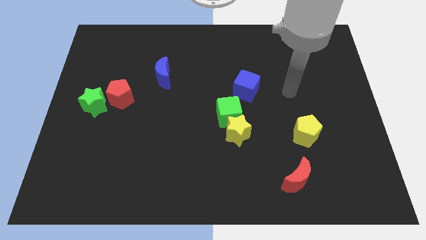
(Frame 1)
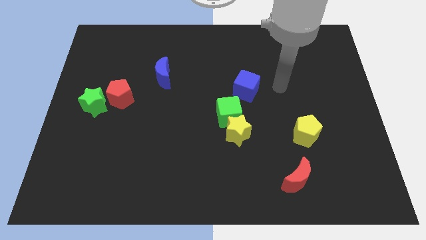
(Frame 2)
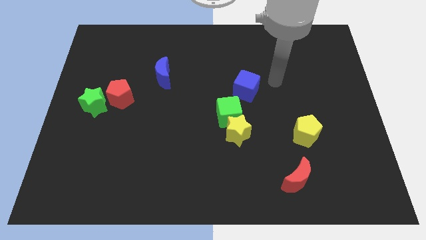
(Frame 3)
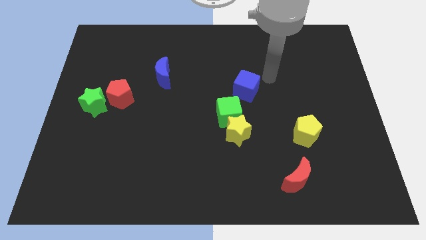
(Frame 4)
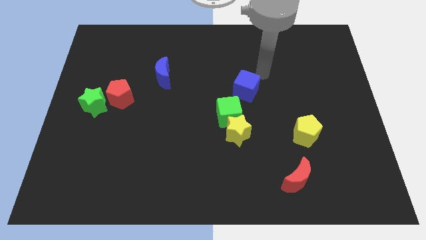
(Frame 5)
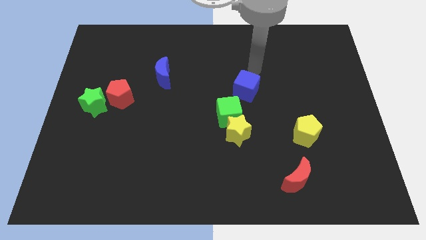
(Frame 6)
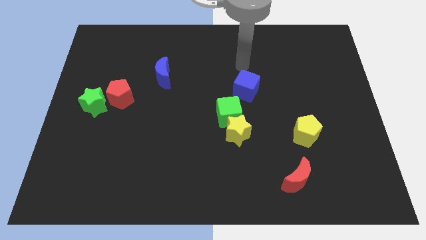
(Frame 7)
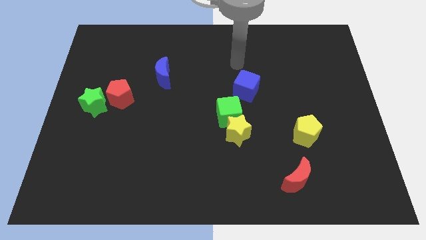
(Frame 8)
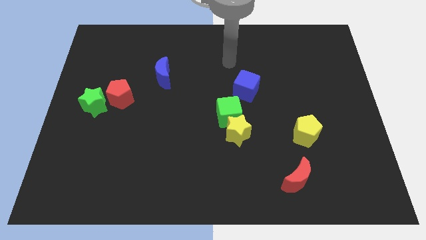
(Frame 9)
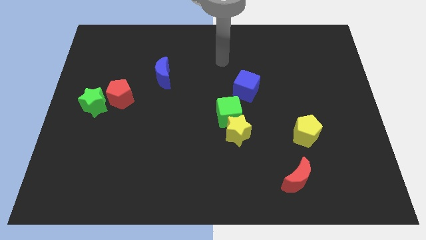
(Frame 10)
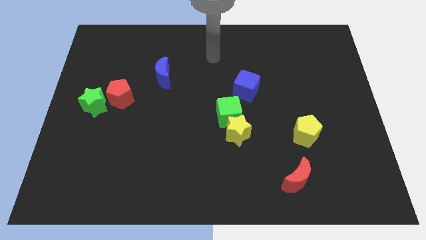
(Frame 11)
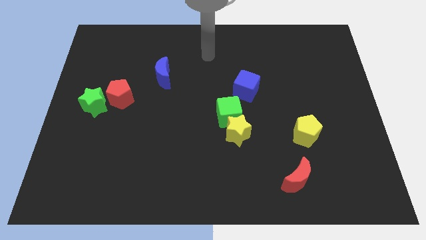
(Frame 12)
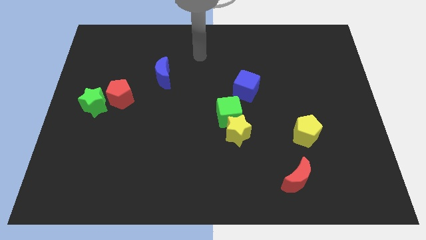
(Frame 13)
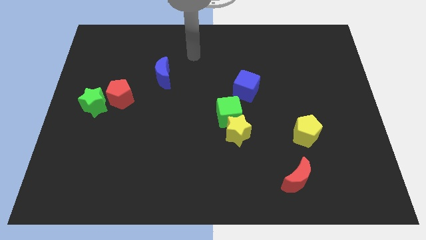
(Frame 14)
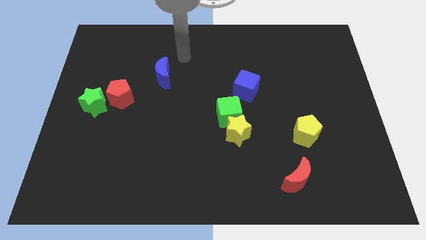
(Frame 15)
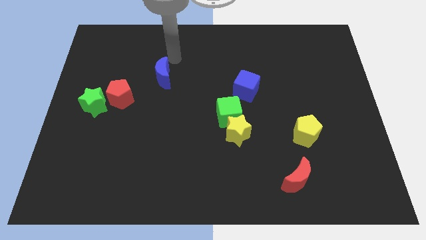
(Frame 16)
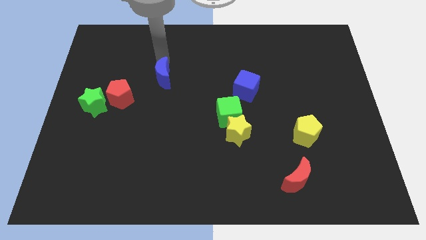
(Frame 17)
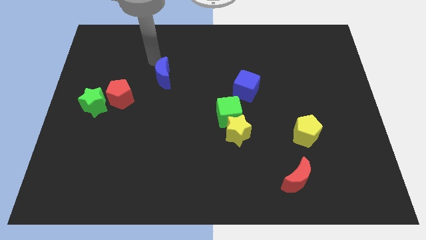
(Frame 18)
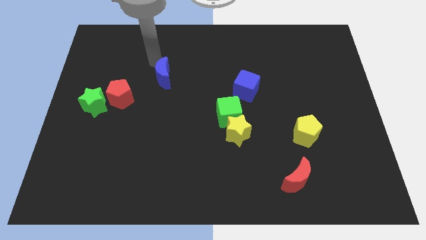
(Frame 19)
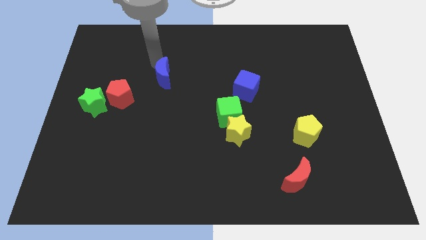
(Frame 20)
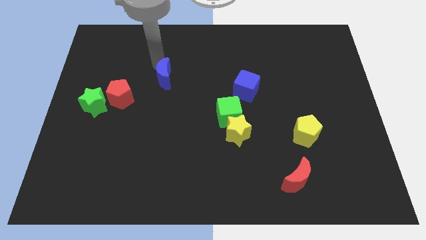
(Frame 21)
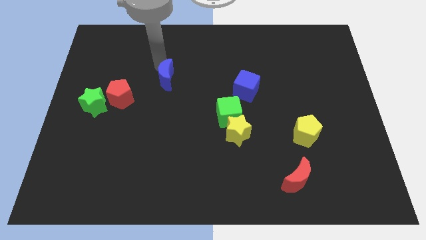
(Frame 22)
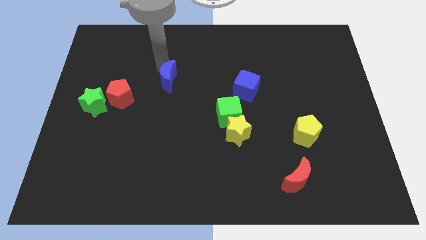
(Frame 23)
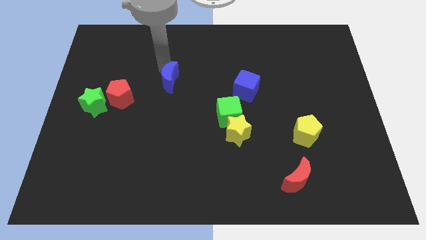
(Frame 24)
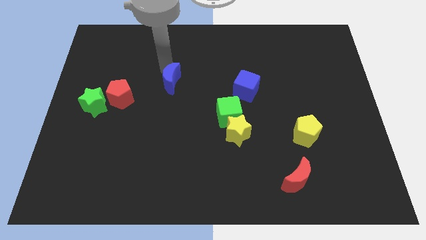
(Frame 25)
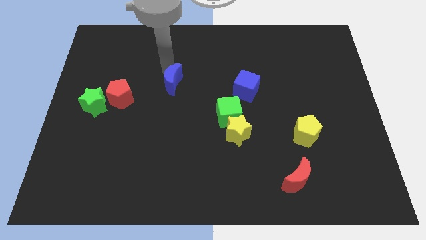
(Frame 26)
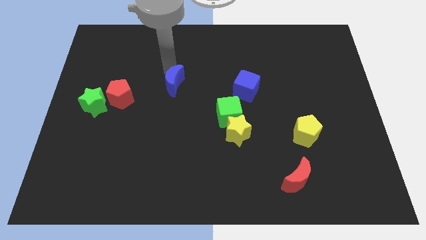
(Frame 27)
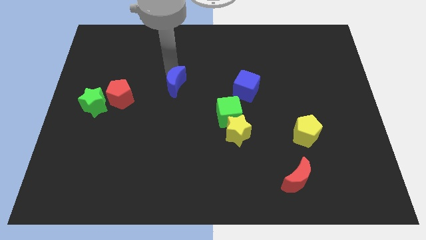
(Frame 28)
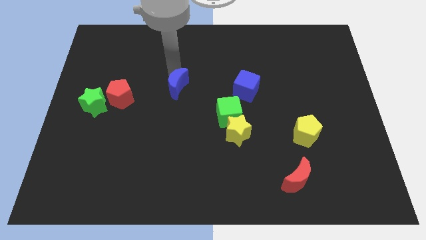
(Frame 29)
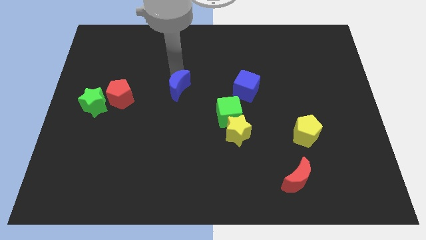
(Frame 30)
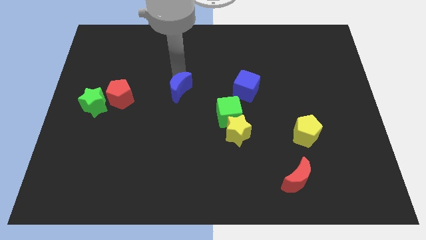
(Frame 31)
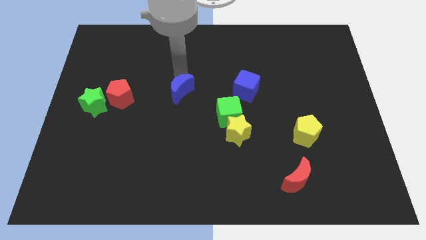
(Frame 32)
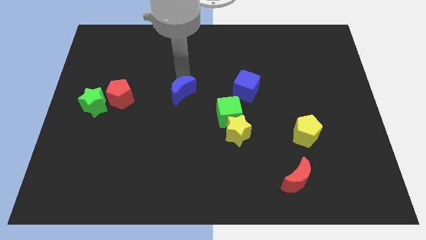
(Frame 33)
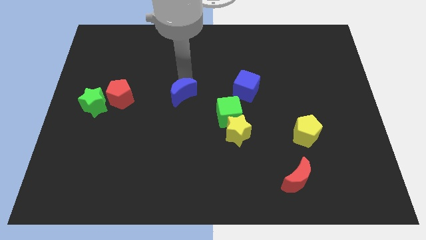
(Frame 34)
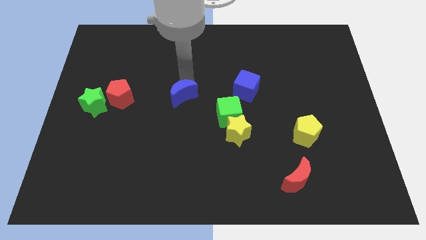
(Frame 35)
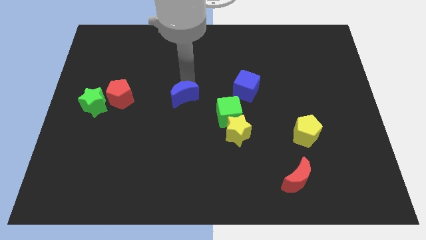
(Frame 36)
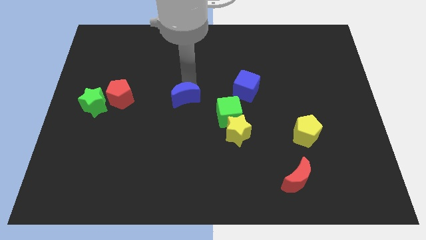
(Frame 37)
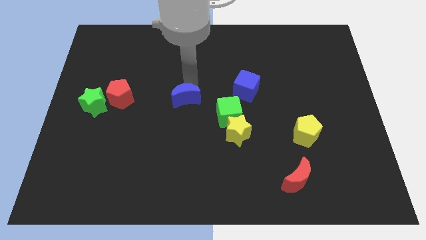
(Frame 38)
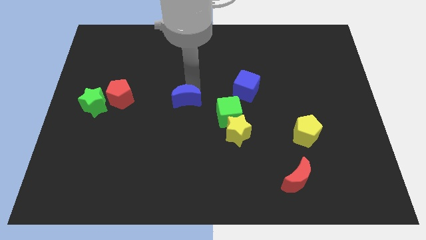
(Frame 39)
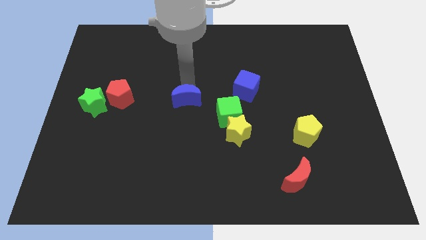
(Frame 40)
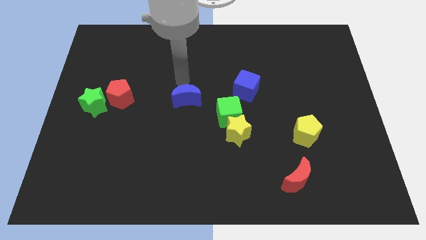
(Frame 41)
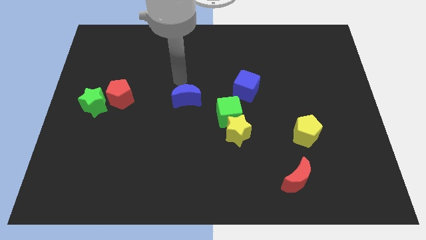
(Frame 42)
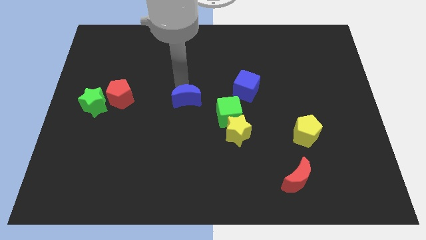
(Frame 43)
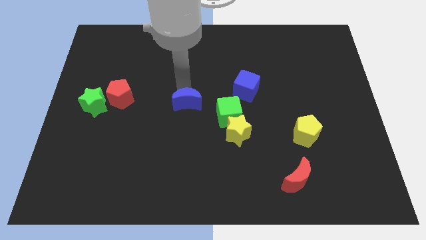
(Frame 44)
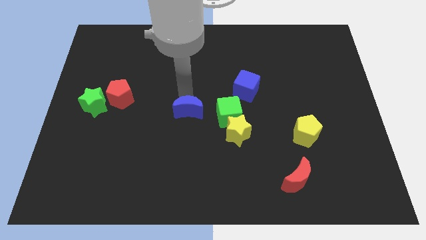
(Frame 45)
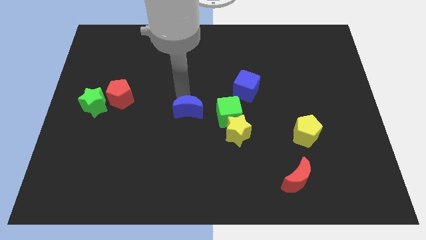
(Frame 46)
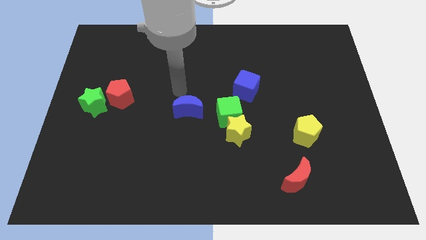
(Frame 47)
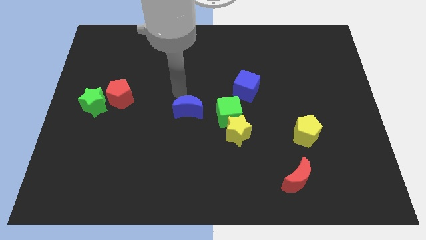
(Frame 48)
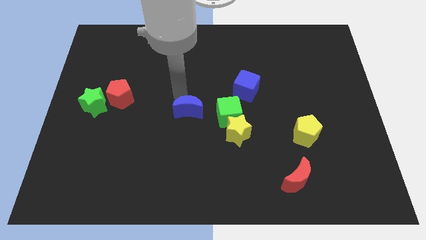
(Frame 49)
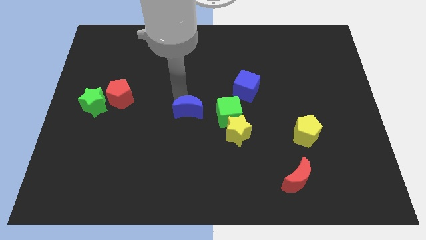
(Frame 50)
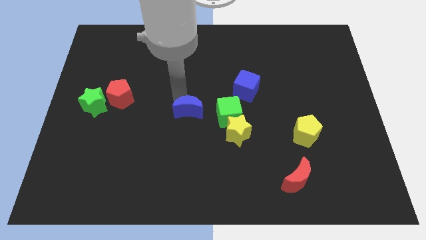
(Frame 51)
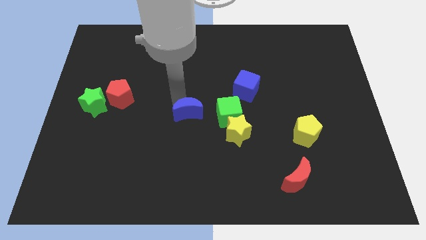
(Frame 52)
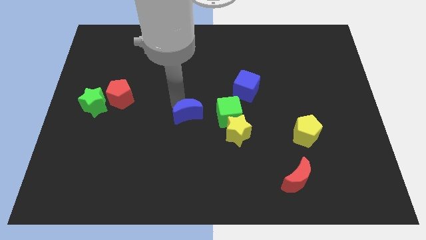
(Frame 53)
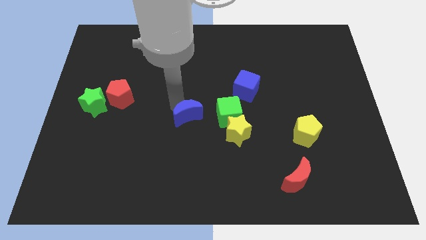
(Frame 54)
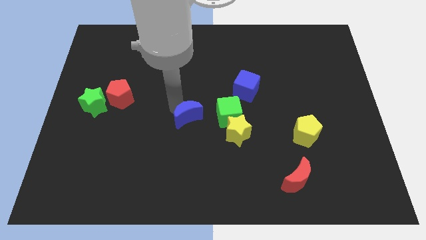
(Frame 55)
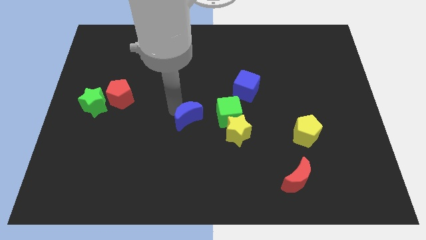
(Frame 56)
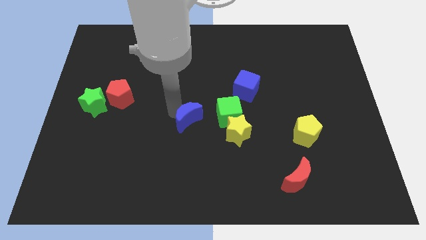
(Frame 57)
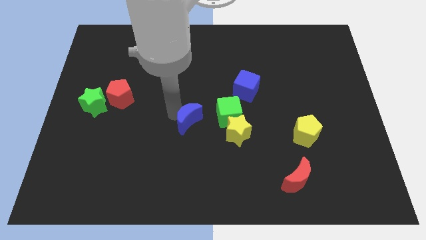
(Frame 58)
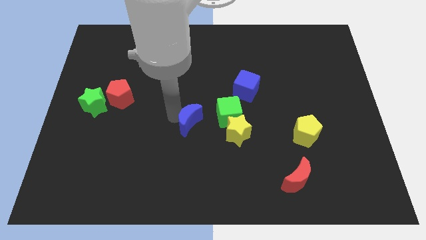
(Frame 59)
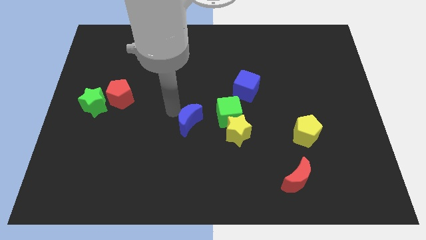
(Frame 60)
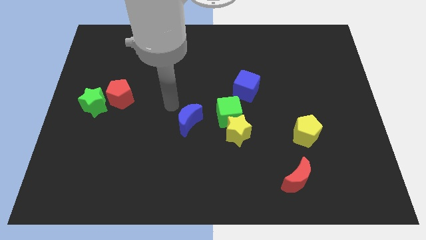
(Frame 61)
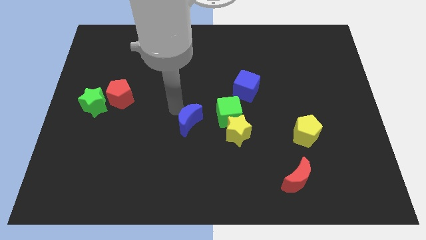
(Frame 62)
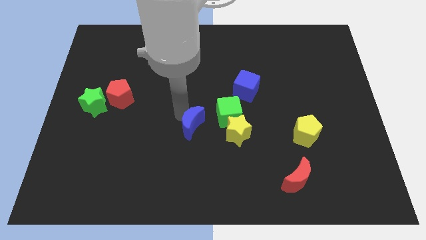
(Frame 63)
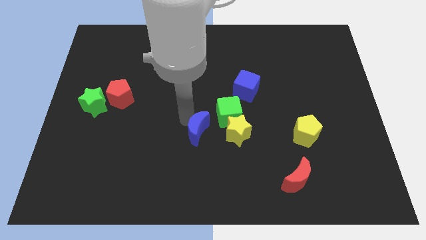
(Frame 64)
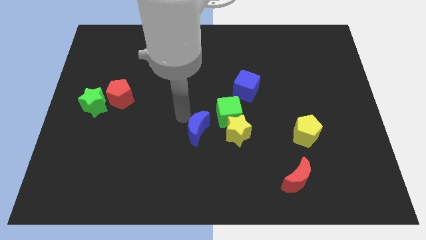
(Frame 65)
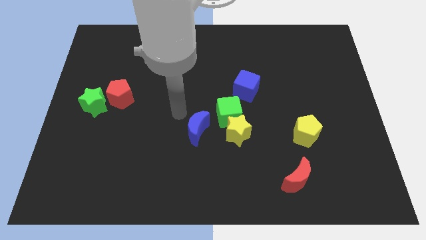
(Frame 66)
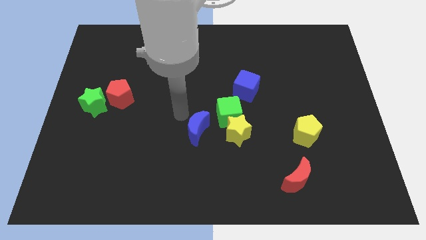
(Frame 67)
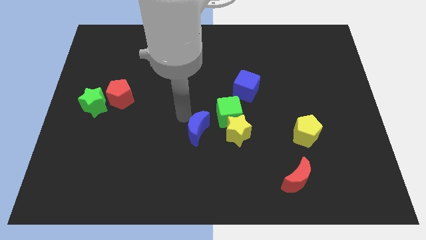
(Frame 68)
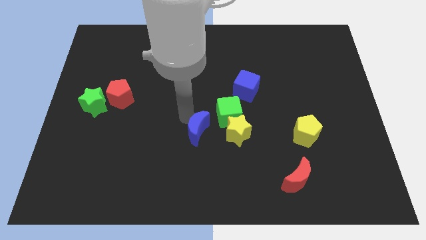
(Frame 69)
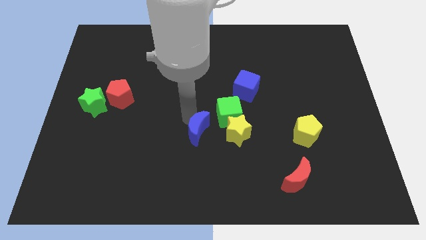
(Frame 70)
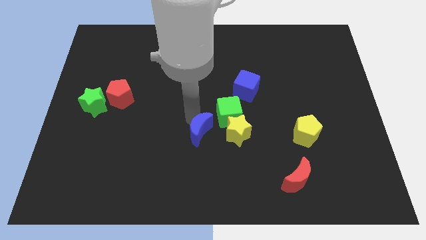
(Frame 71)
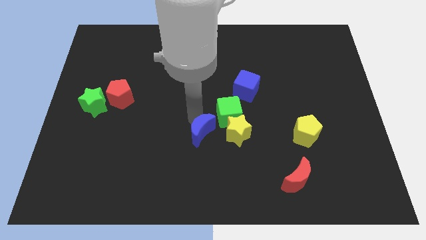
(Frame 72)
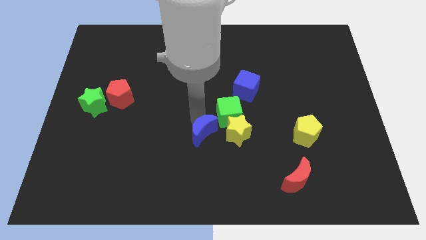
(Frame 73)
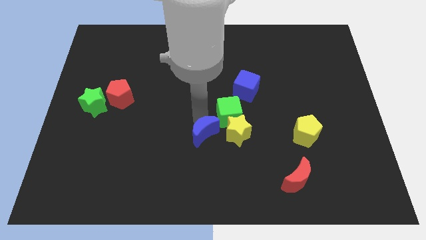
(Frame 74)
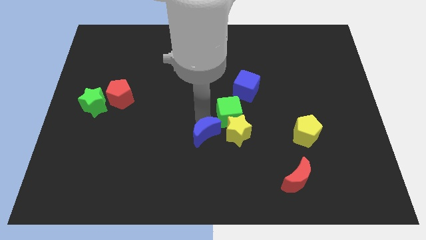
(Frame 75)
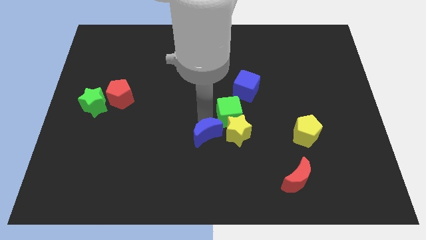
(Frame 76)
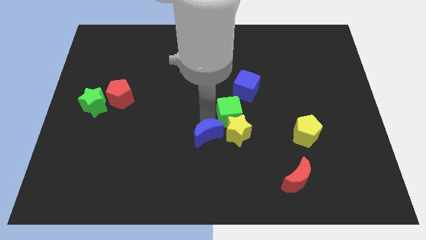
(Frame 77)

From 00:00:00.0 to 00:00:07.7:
push the blue moon downwards and right

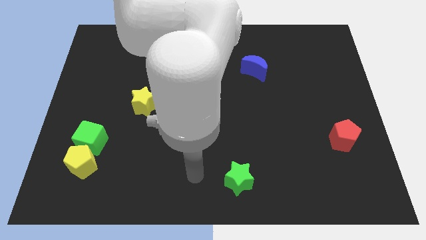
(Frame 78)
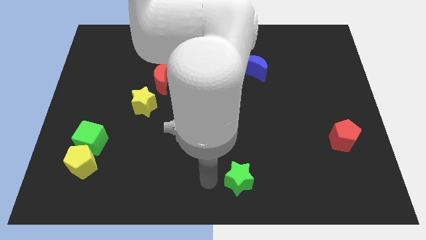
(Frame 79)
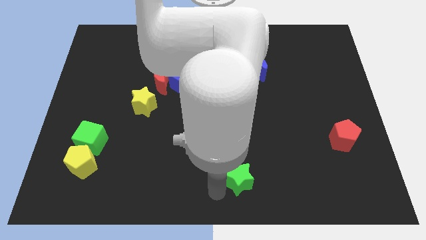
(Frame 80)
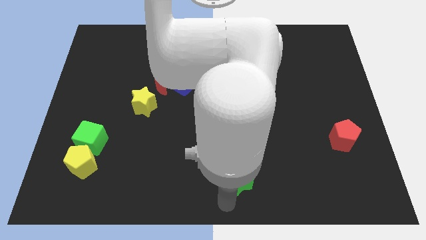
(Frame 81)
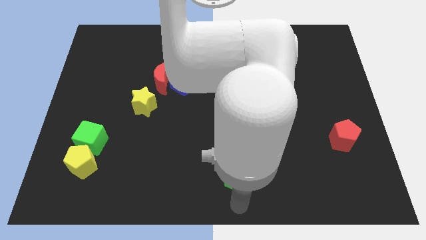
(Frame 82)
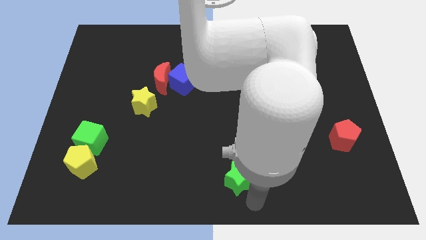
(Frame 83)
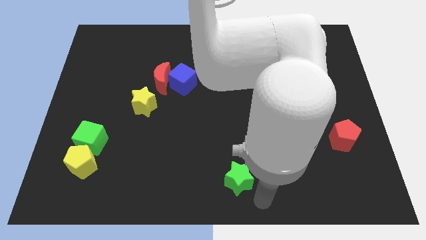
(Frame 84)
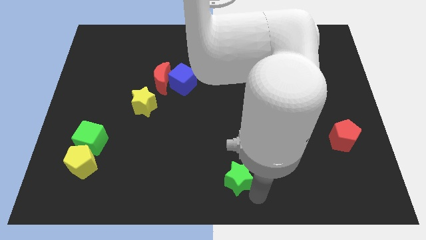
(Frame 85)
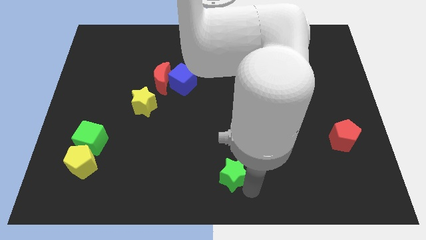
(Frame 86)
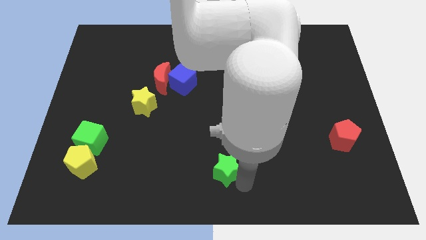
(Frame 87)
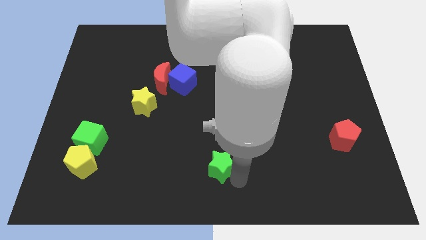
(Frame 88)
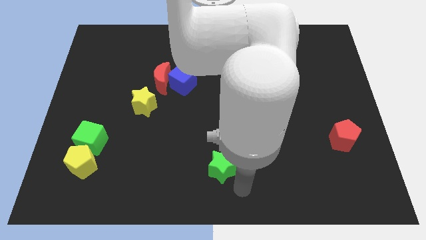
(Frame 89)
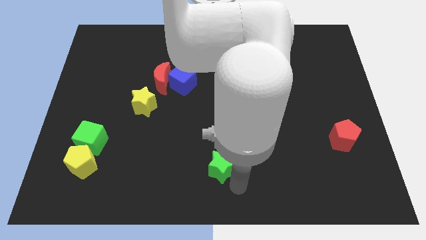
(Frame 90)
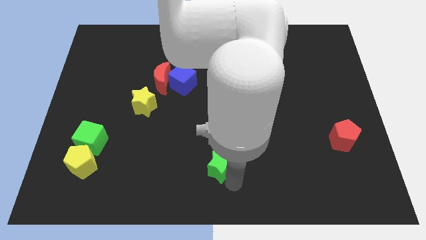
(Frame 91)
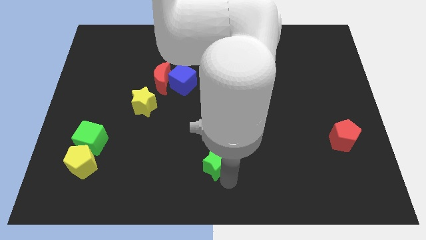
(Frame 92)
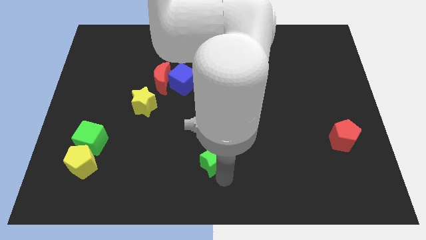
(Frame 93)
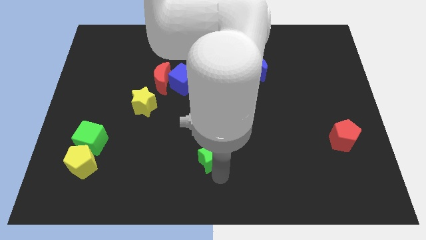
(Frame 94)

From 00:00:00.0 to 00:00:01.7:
push the green star upwards and to the left a little
